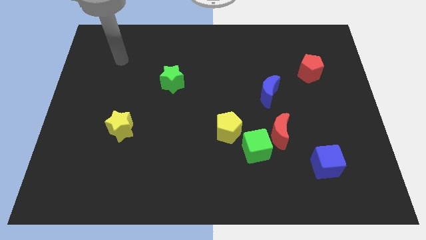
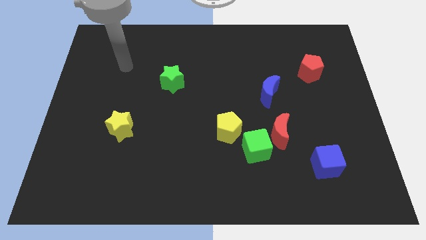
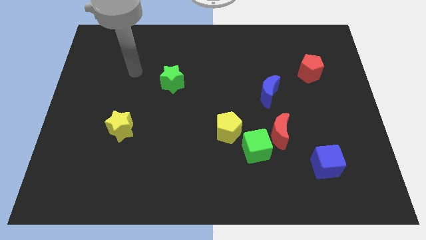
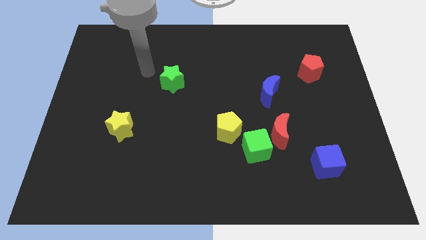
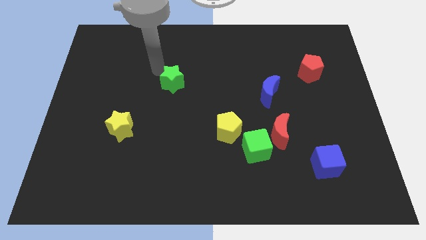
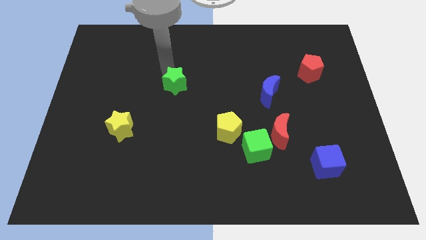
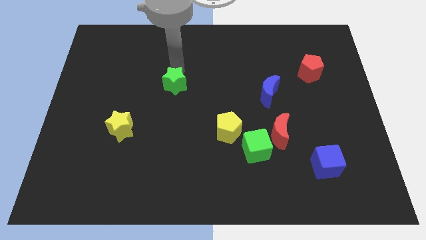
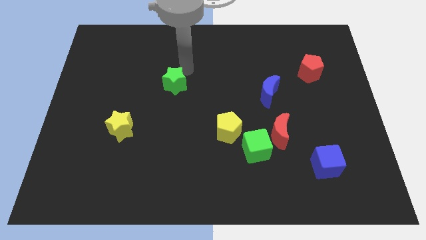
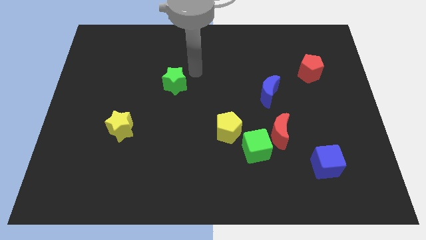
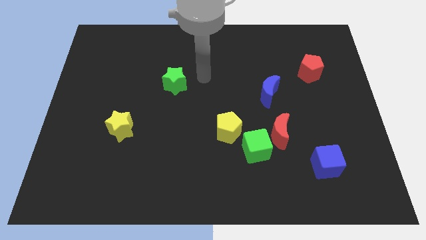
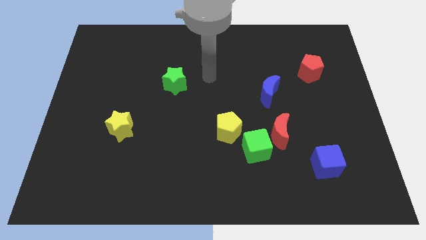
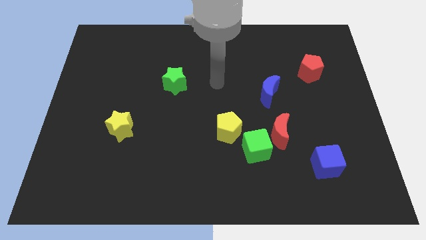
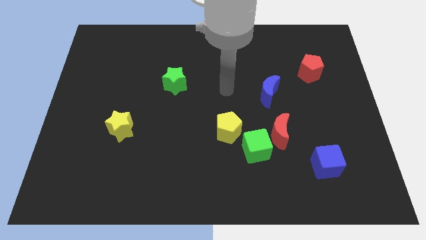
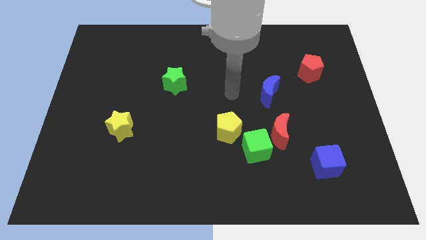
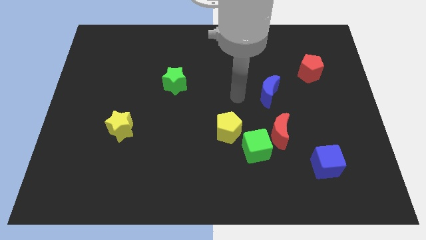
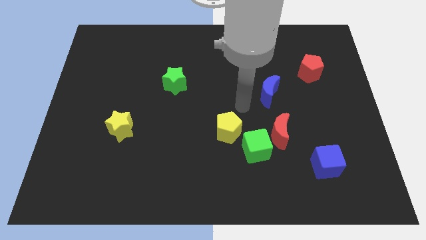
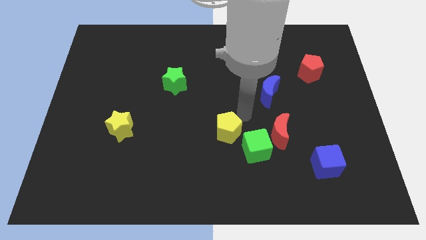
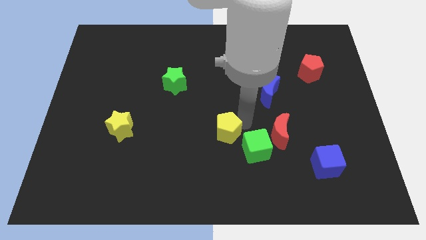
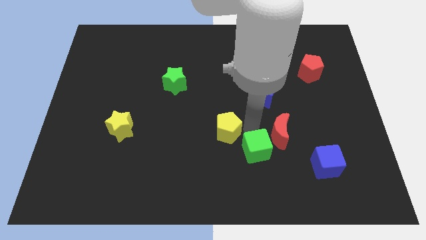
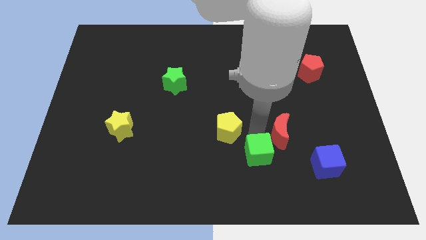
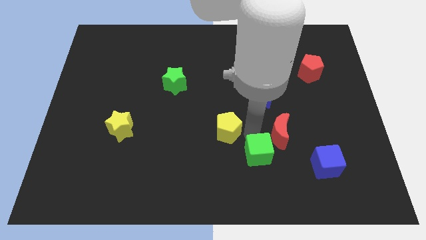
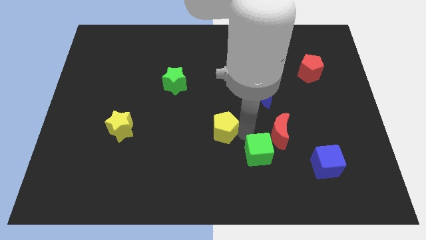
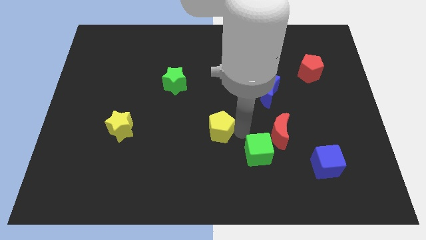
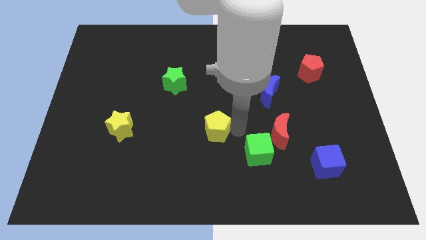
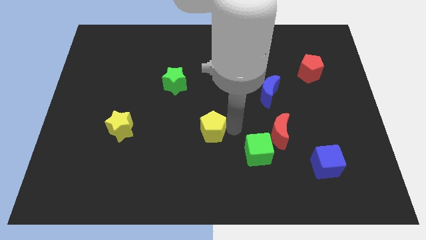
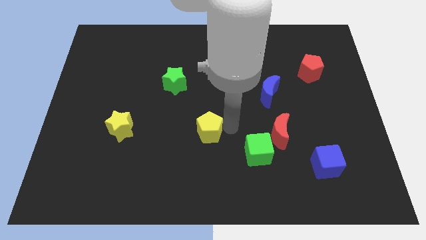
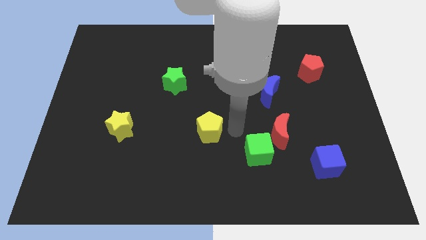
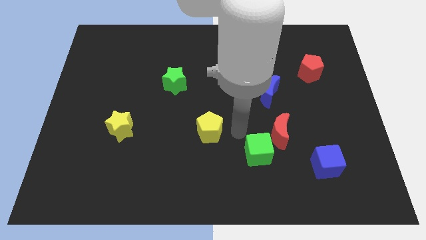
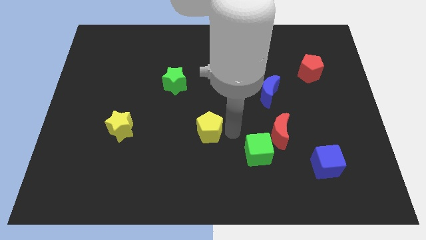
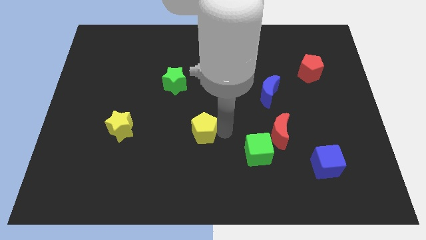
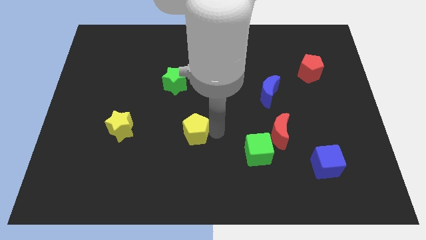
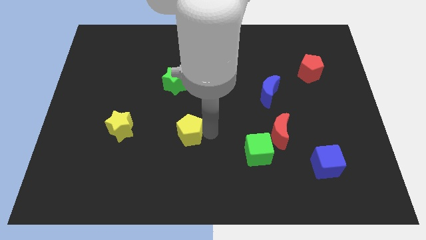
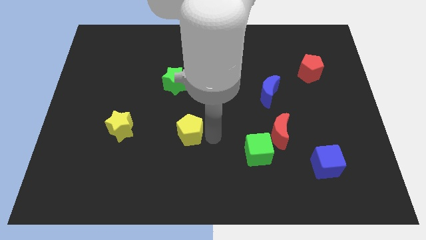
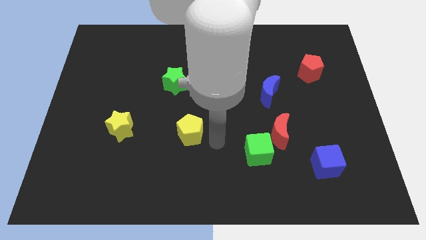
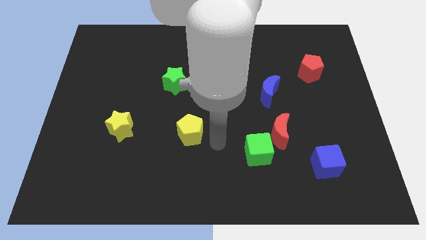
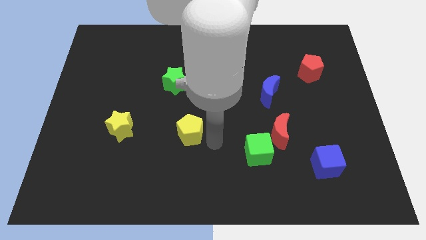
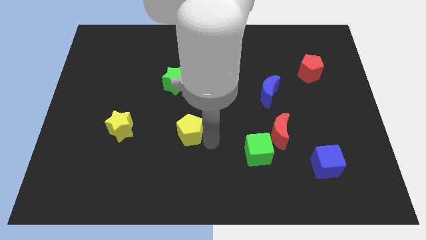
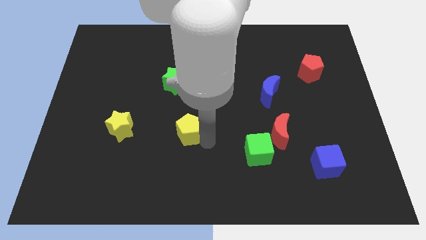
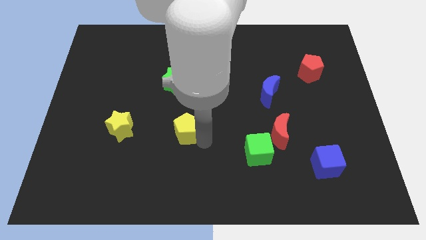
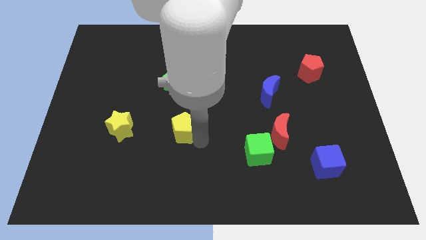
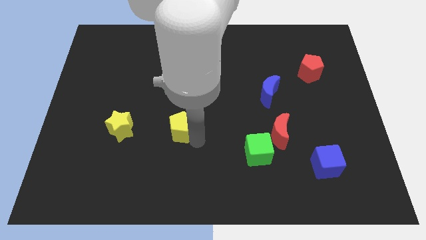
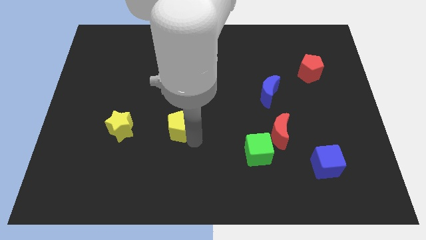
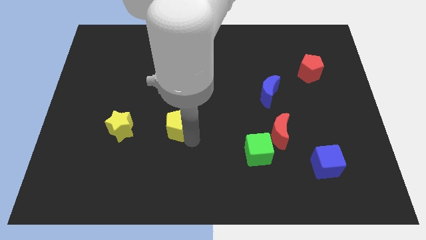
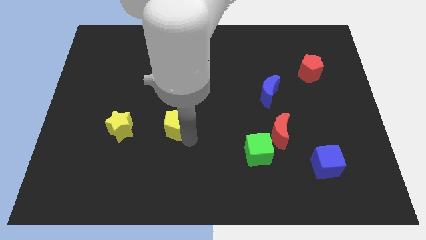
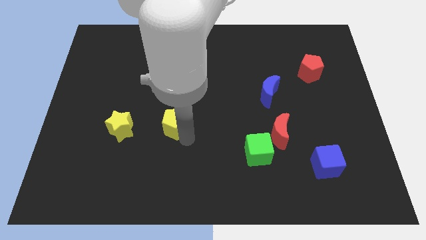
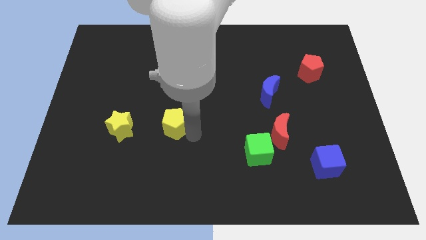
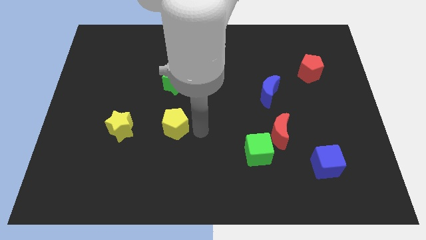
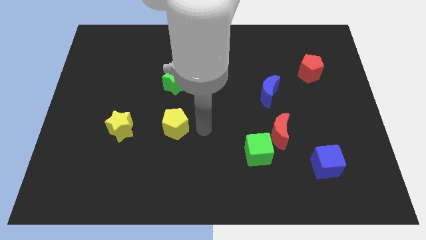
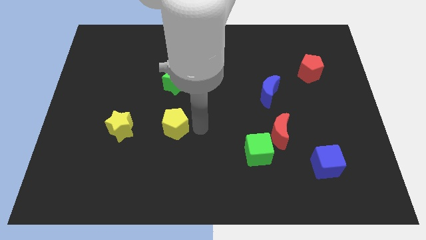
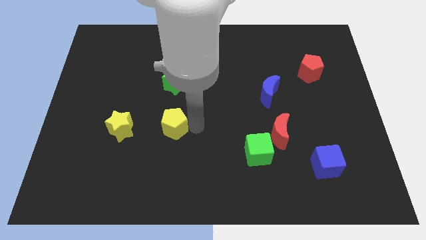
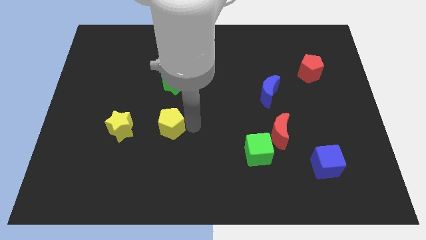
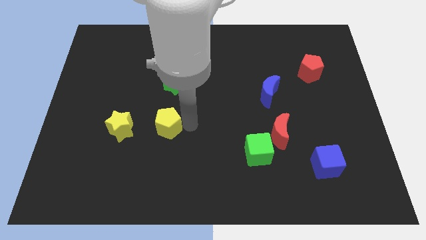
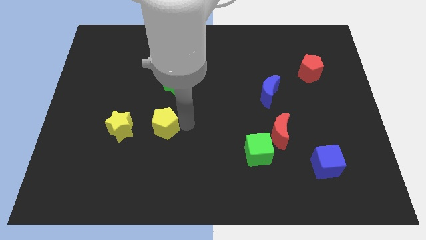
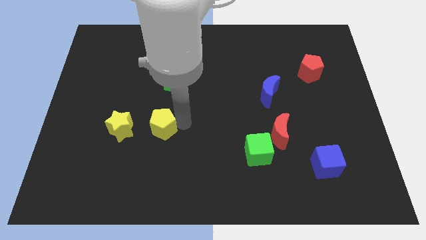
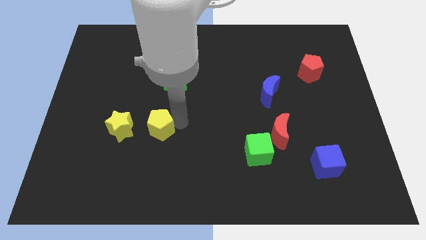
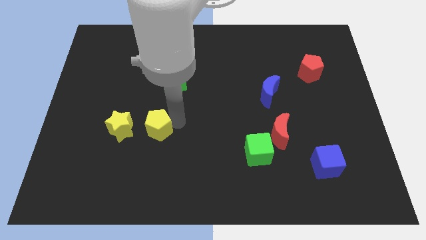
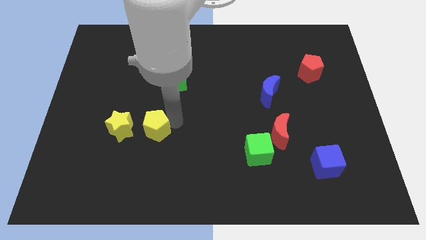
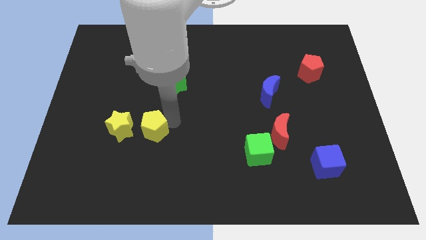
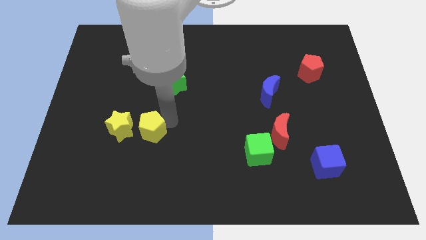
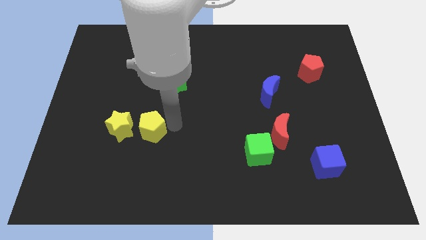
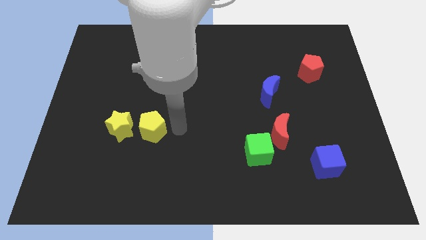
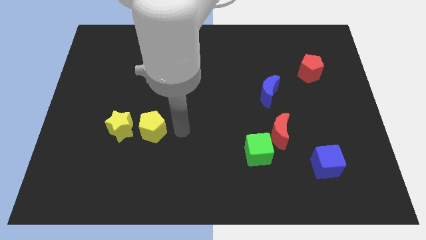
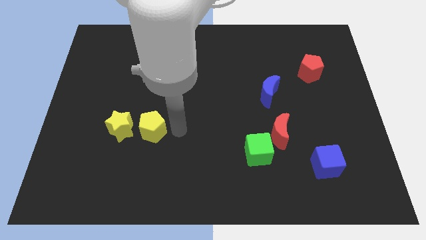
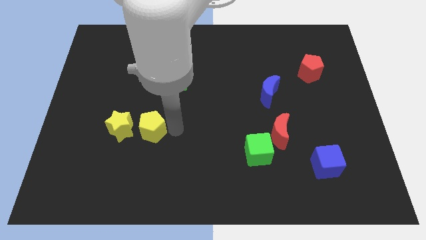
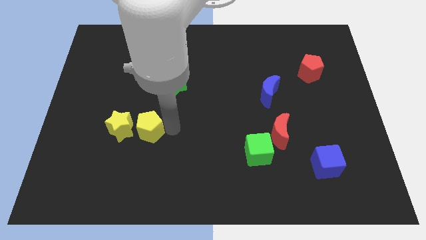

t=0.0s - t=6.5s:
move the yellow pentagon towards the yellow star

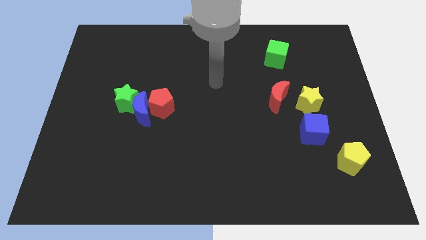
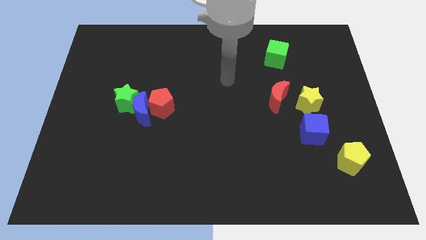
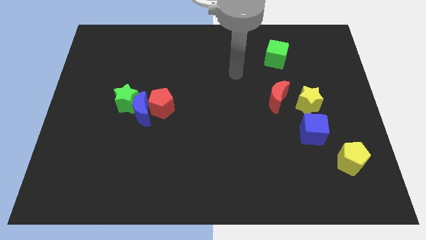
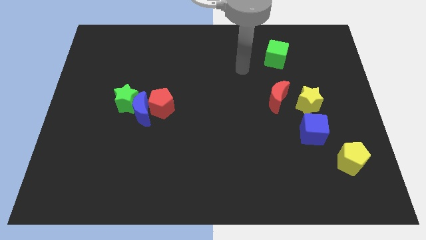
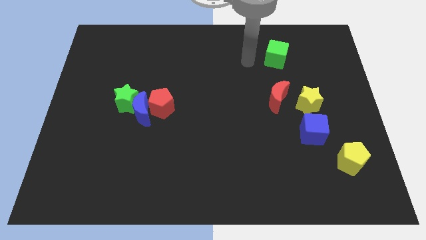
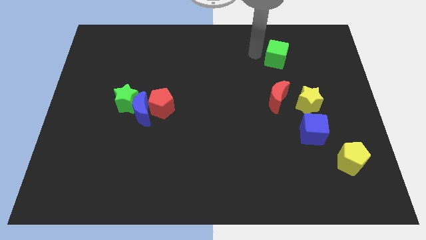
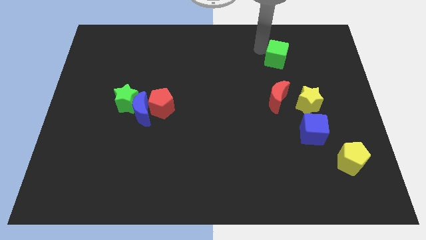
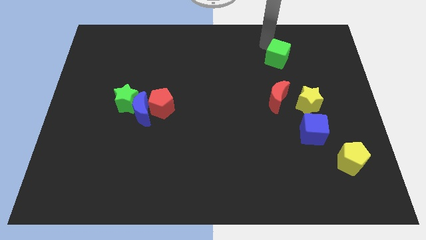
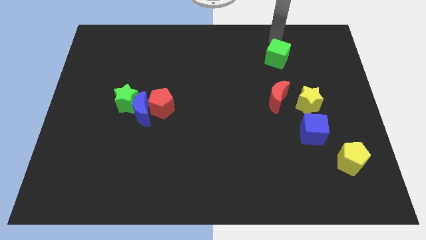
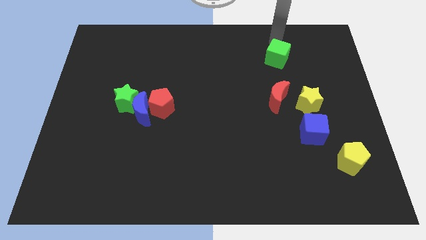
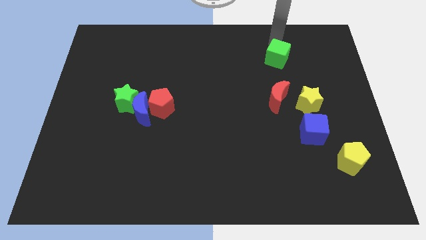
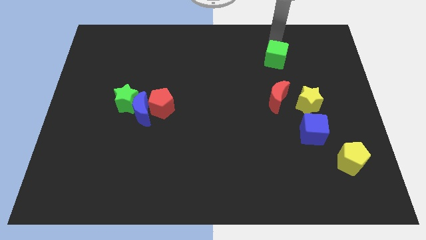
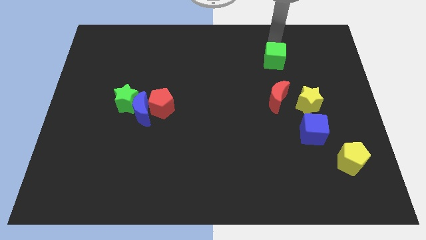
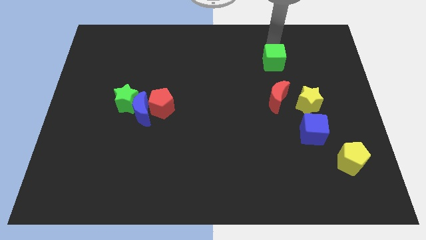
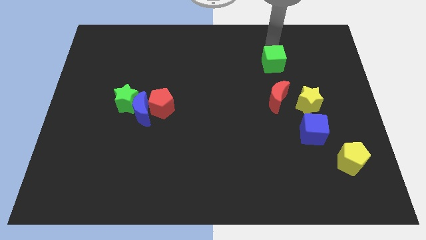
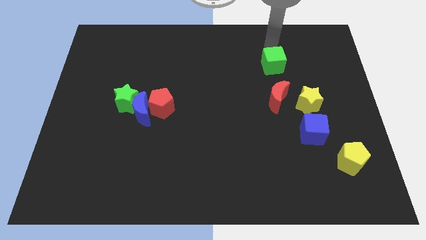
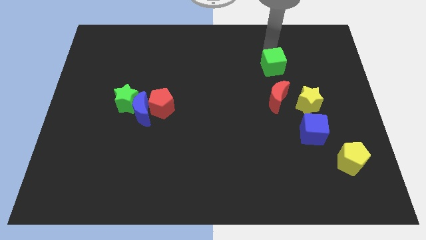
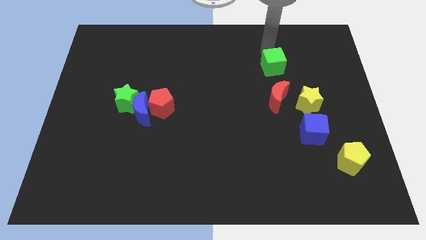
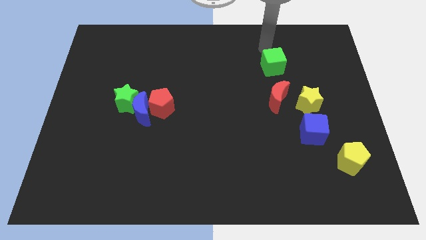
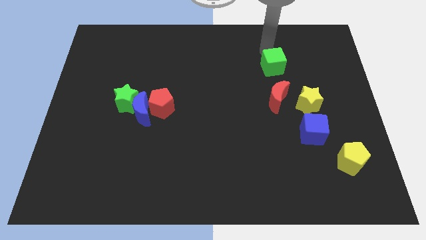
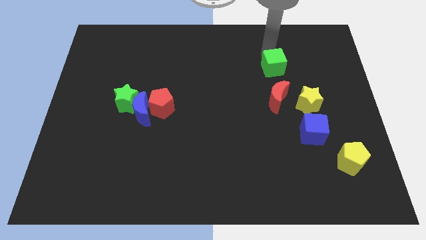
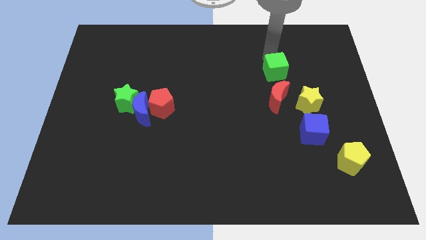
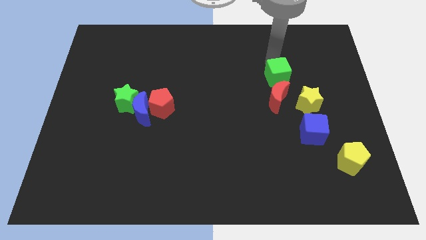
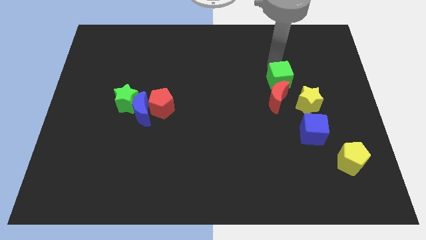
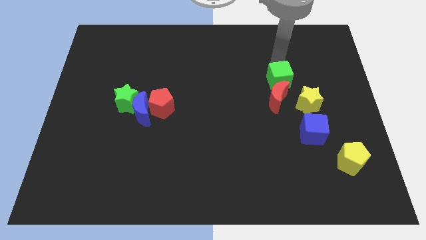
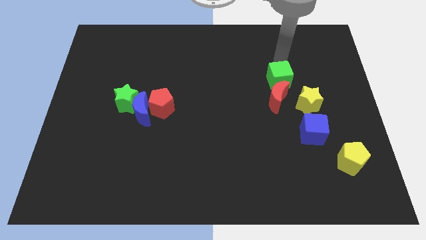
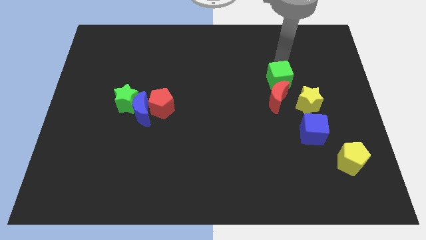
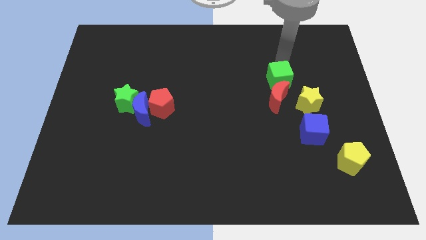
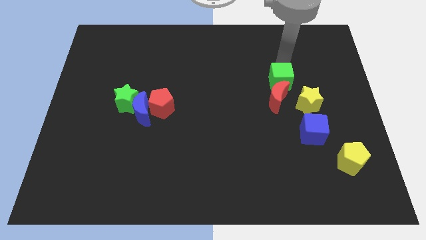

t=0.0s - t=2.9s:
push the green cube close to the red moon
